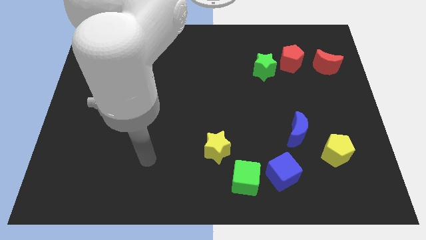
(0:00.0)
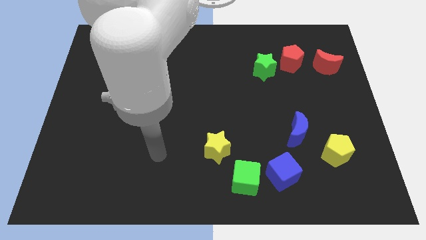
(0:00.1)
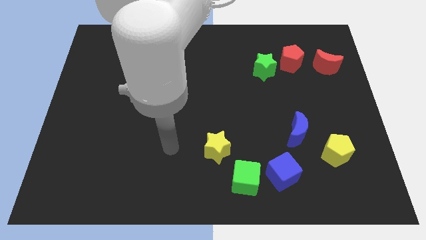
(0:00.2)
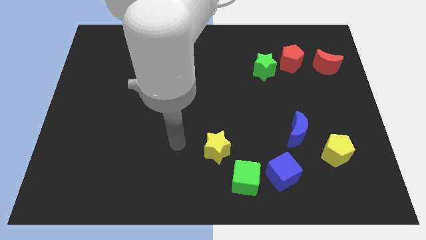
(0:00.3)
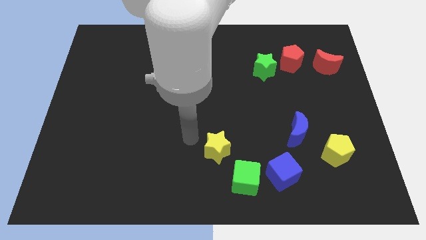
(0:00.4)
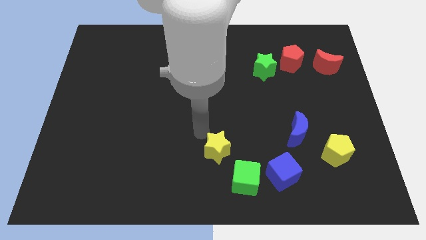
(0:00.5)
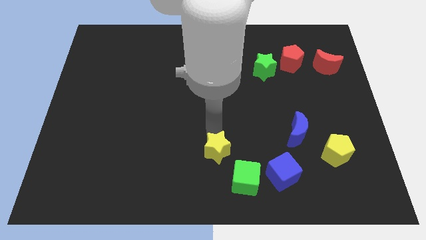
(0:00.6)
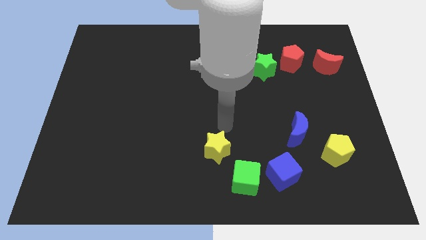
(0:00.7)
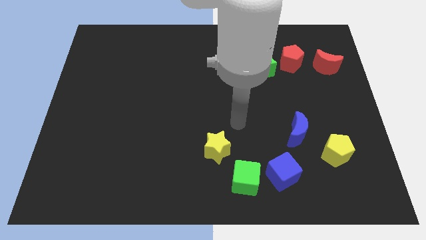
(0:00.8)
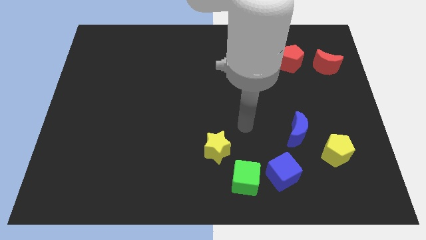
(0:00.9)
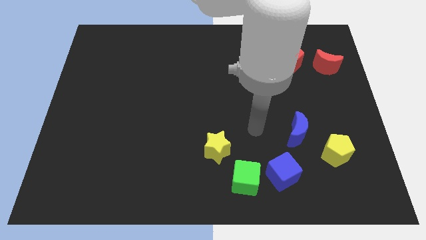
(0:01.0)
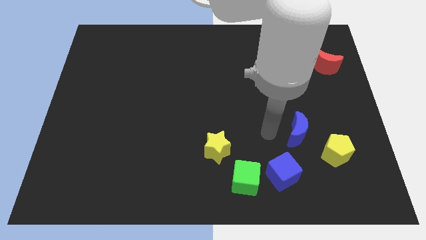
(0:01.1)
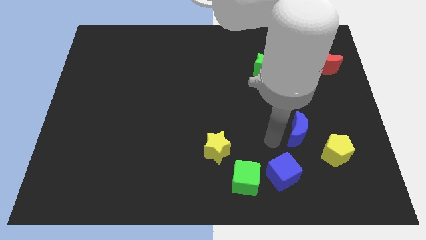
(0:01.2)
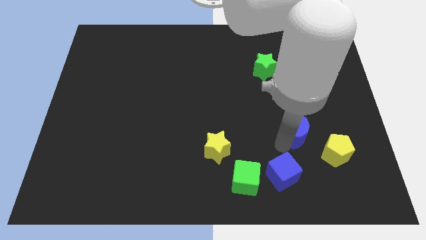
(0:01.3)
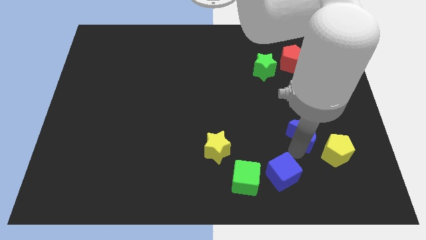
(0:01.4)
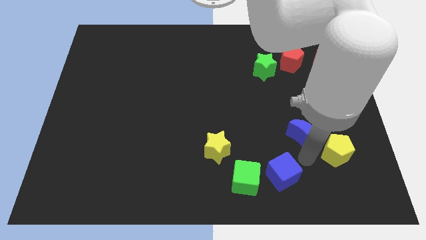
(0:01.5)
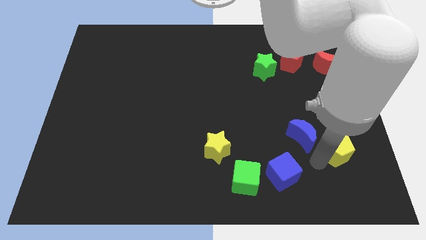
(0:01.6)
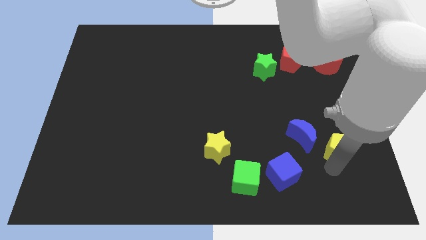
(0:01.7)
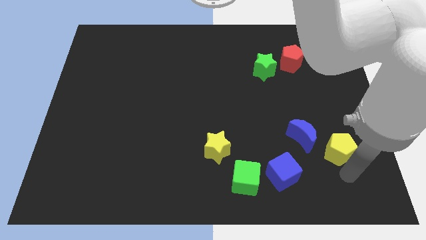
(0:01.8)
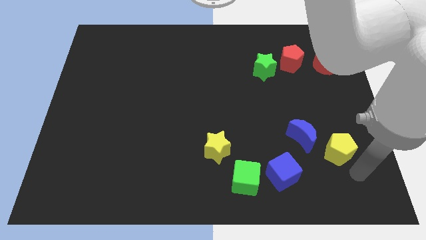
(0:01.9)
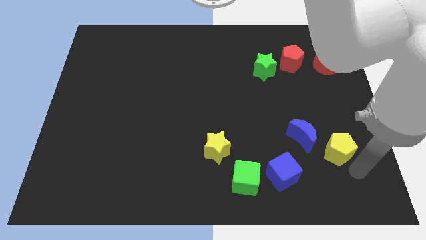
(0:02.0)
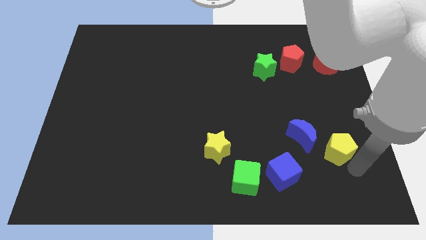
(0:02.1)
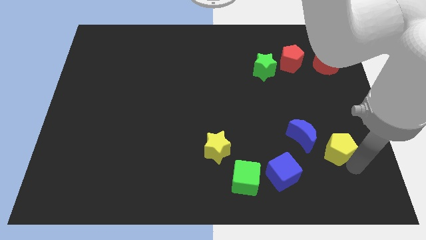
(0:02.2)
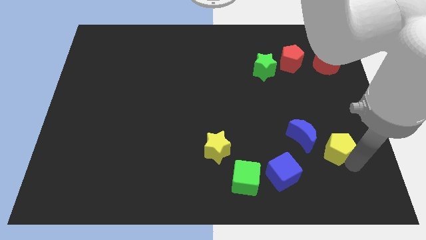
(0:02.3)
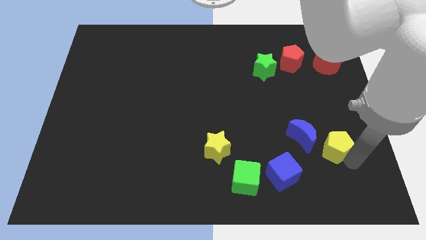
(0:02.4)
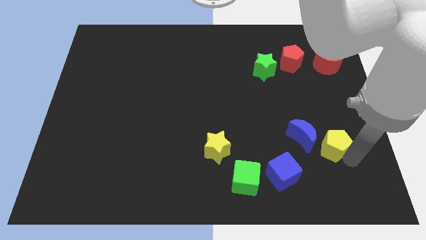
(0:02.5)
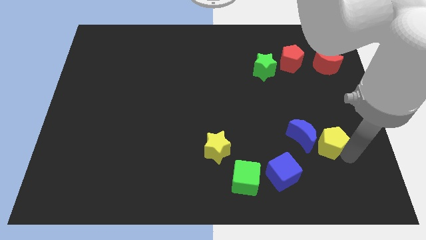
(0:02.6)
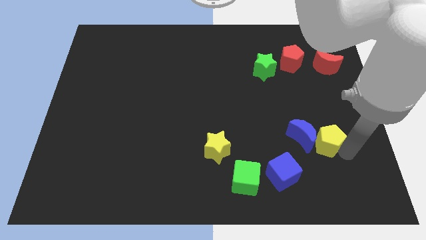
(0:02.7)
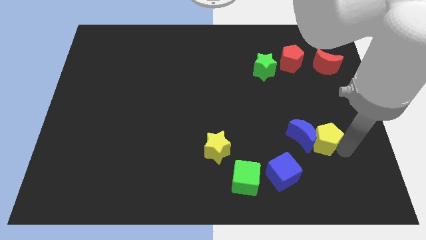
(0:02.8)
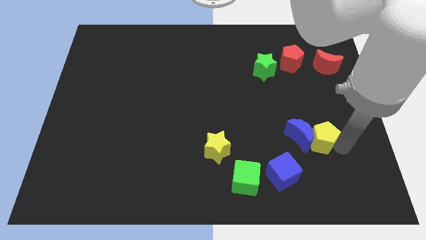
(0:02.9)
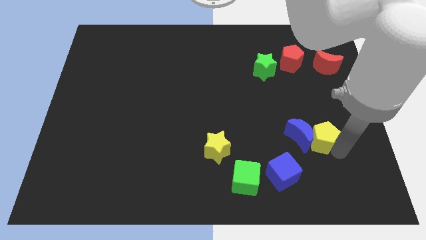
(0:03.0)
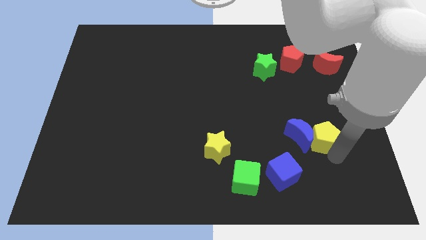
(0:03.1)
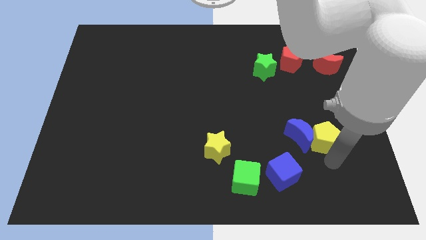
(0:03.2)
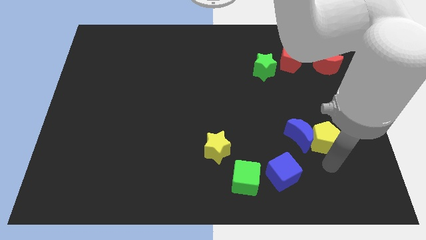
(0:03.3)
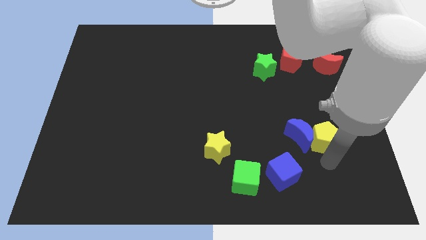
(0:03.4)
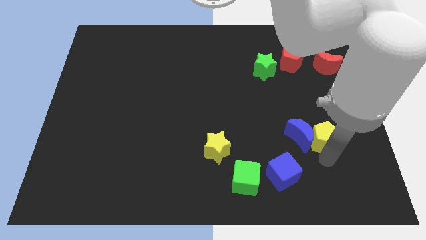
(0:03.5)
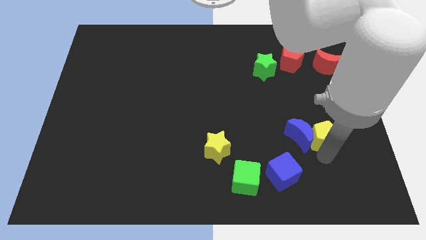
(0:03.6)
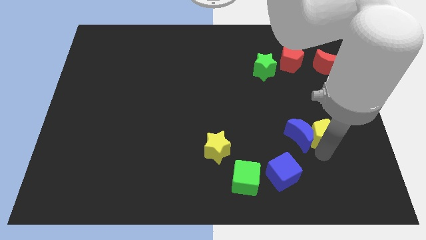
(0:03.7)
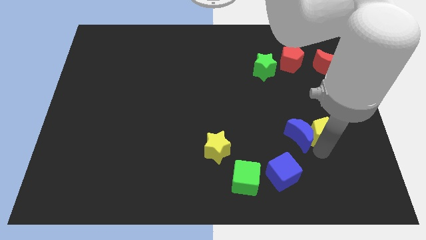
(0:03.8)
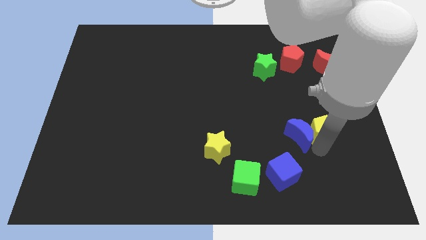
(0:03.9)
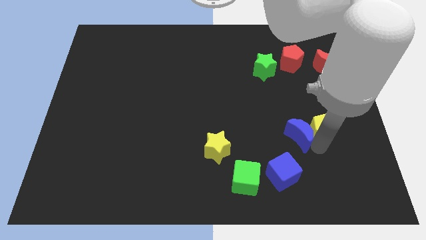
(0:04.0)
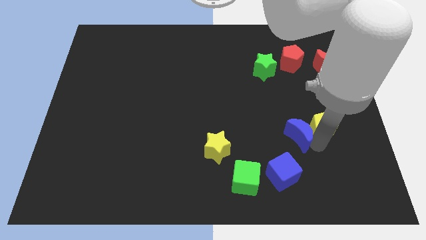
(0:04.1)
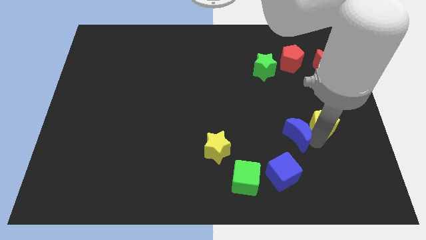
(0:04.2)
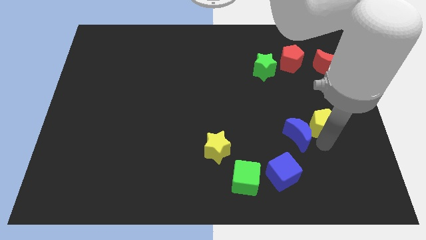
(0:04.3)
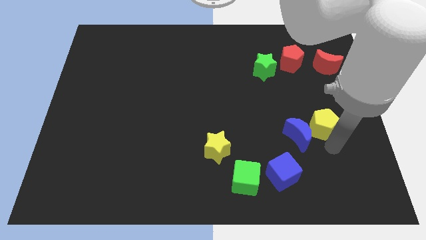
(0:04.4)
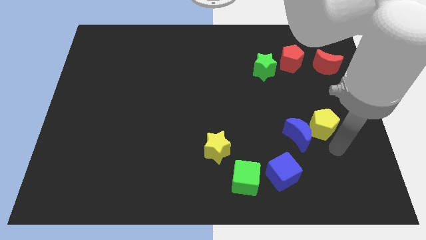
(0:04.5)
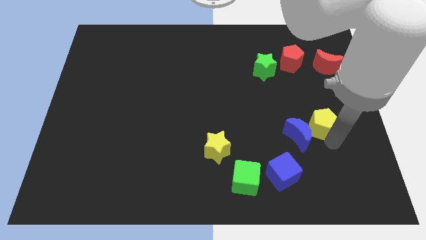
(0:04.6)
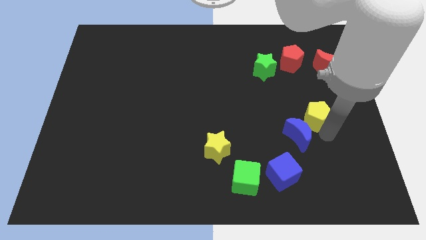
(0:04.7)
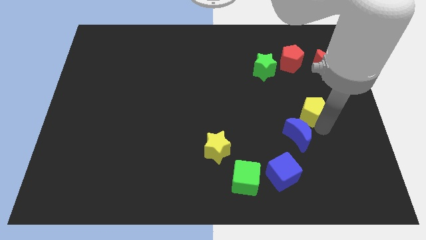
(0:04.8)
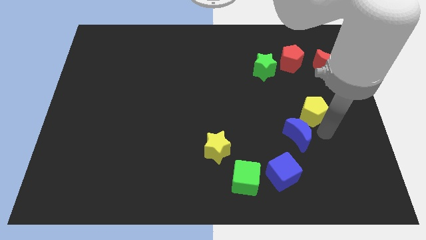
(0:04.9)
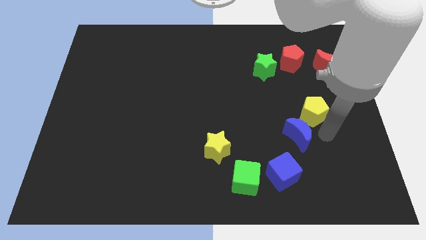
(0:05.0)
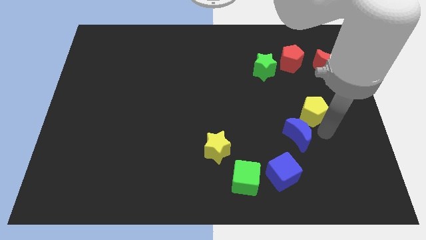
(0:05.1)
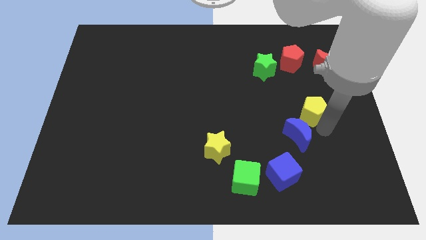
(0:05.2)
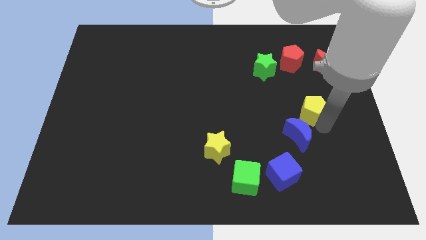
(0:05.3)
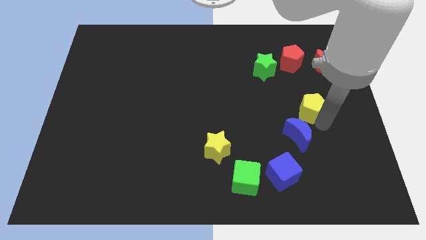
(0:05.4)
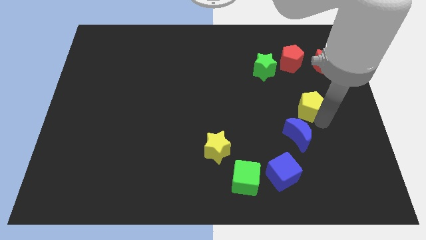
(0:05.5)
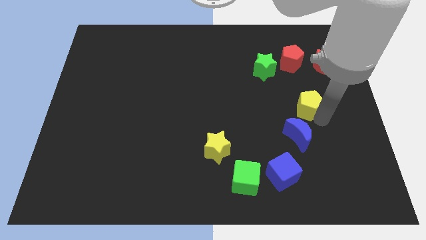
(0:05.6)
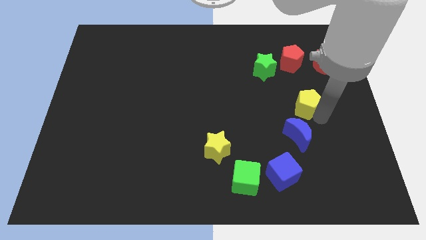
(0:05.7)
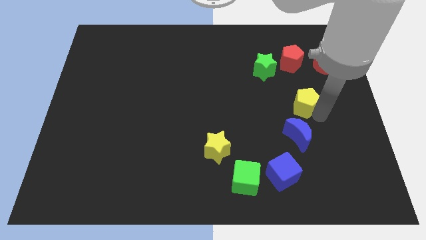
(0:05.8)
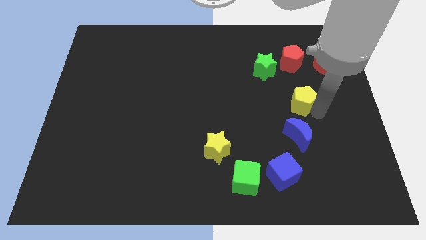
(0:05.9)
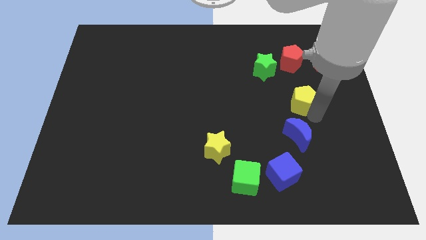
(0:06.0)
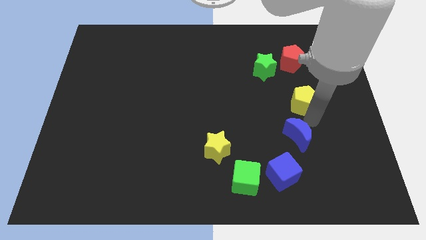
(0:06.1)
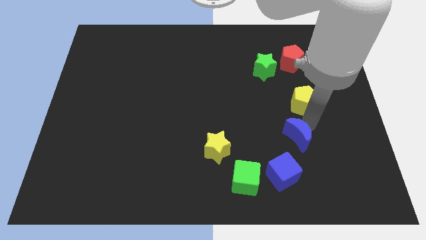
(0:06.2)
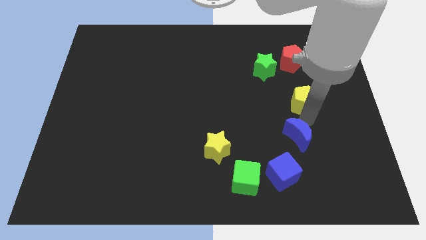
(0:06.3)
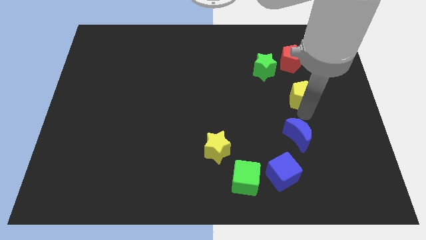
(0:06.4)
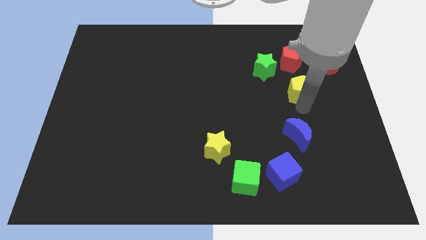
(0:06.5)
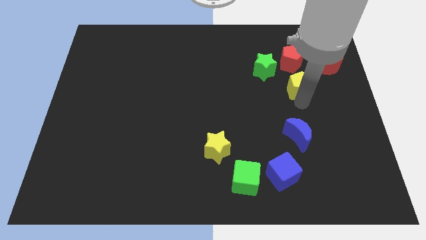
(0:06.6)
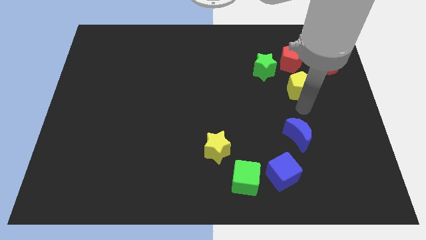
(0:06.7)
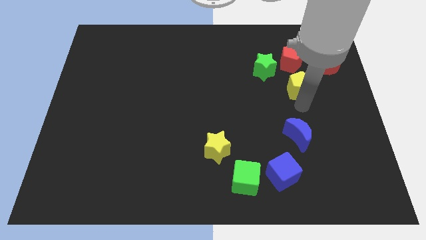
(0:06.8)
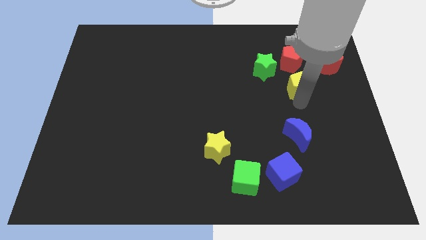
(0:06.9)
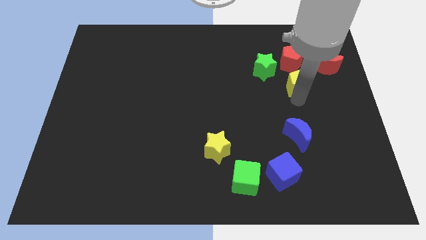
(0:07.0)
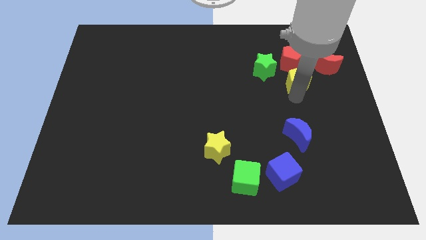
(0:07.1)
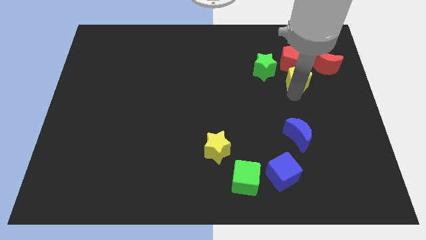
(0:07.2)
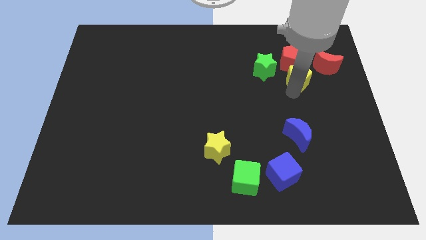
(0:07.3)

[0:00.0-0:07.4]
push the yellow pentagon to the red pentagon

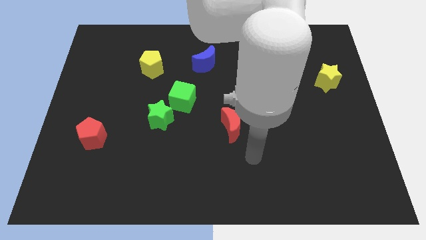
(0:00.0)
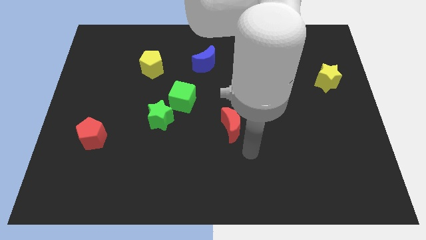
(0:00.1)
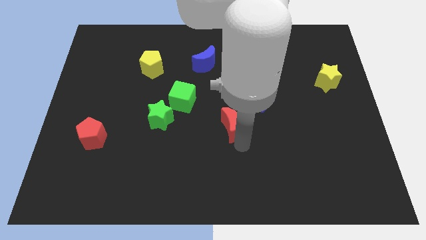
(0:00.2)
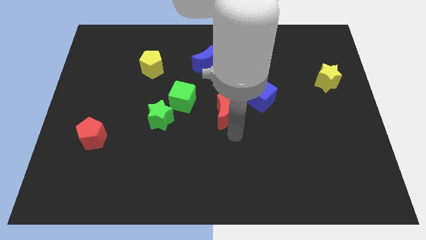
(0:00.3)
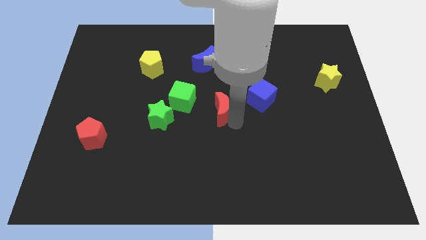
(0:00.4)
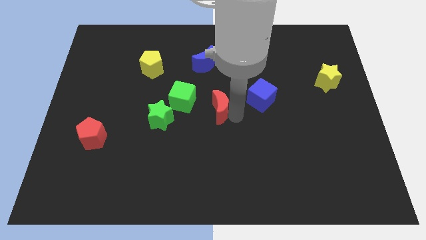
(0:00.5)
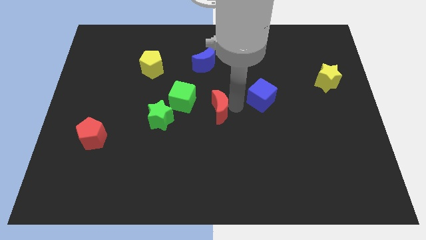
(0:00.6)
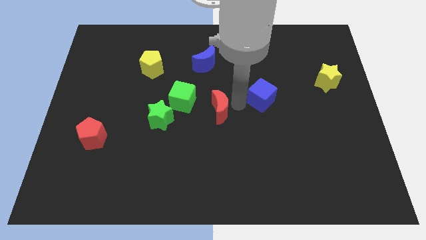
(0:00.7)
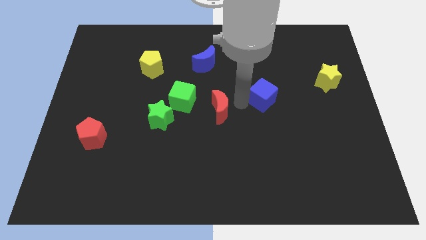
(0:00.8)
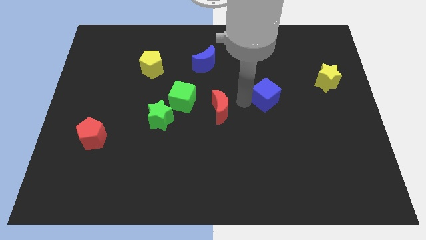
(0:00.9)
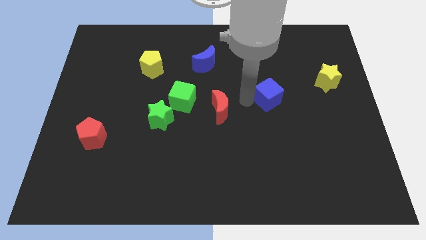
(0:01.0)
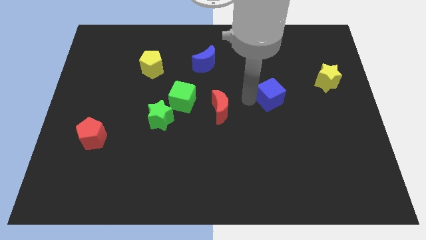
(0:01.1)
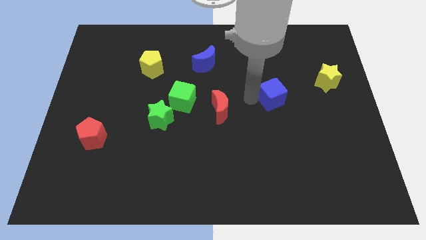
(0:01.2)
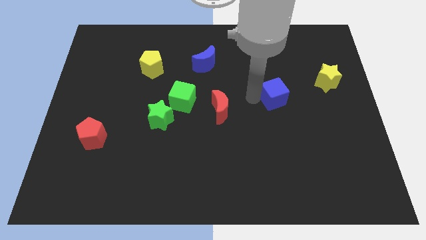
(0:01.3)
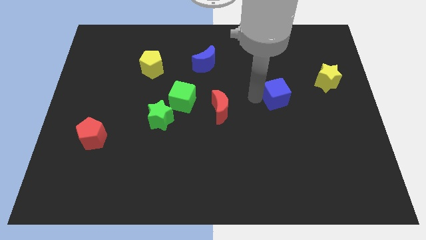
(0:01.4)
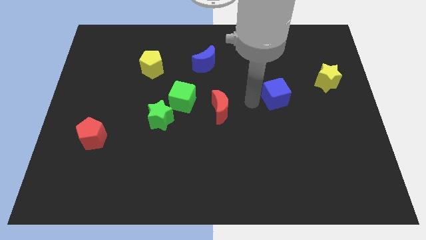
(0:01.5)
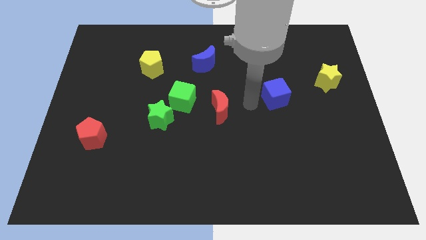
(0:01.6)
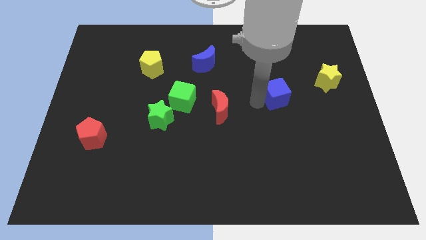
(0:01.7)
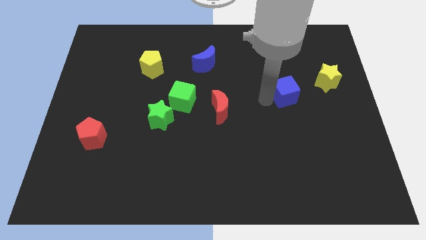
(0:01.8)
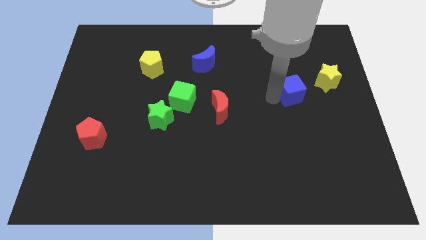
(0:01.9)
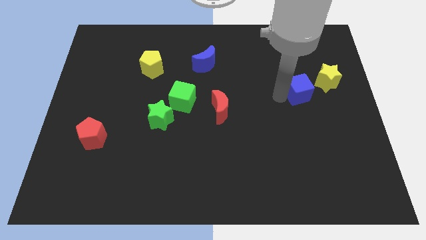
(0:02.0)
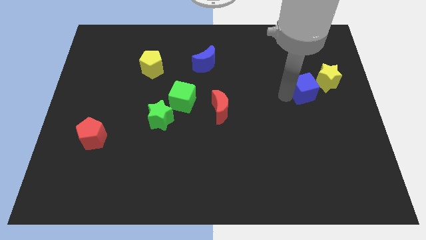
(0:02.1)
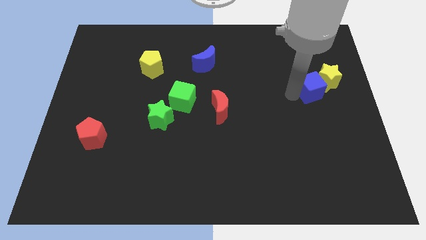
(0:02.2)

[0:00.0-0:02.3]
move the blue cube towards the yellow star
